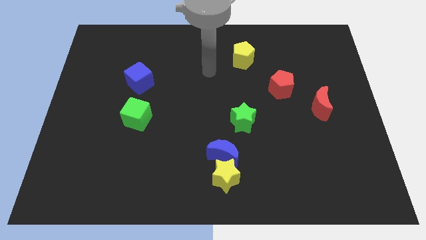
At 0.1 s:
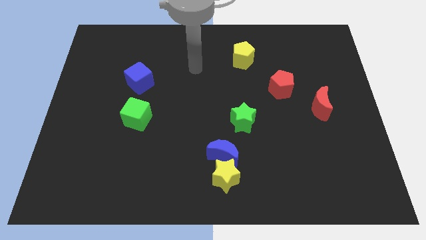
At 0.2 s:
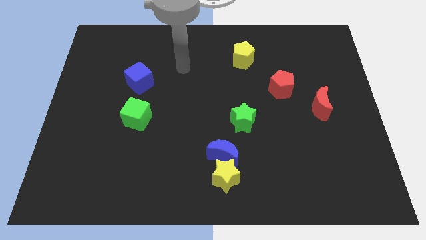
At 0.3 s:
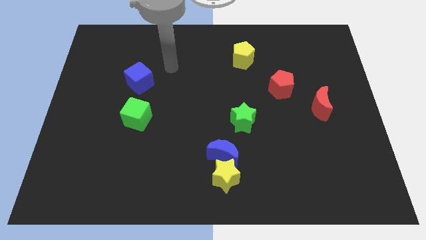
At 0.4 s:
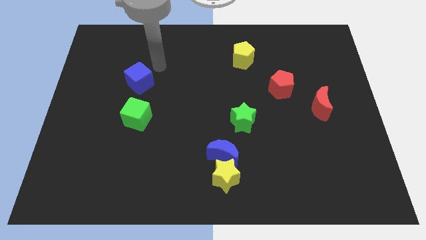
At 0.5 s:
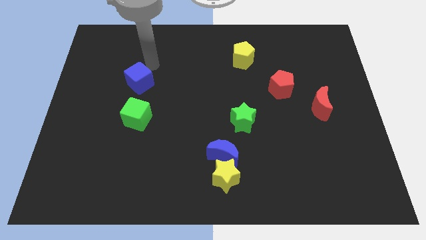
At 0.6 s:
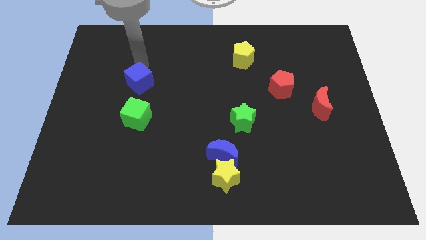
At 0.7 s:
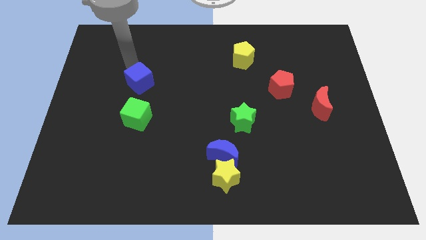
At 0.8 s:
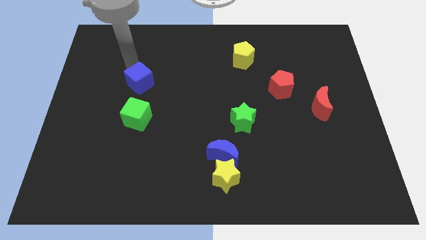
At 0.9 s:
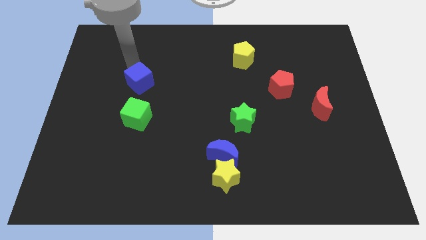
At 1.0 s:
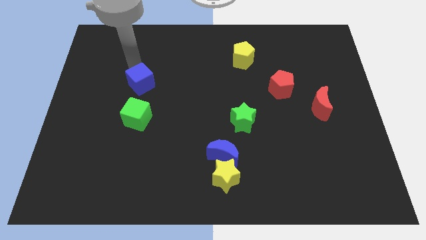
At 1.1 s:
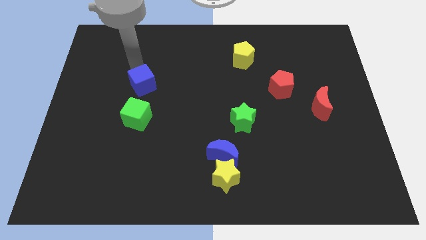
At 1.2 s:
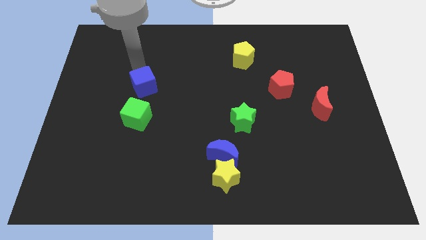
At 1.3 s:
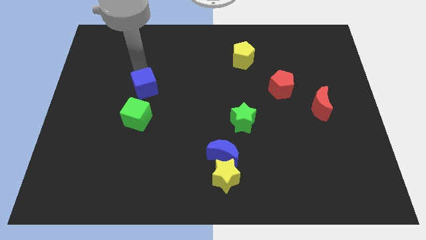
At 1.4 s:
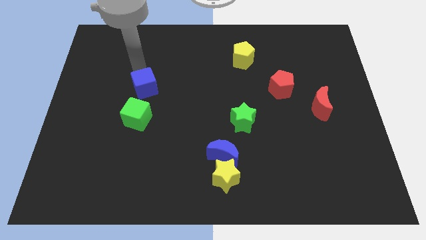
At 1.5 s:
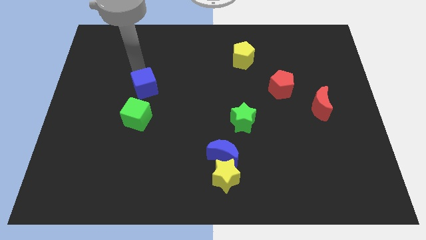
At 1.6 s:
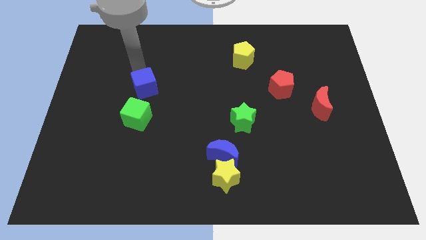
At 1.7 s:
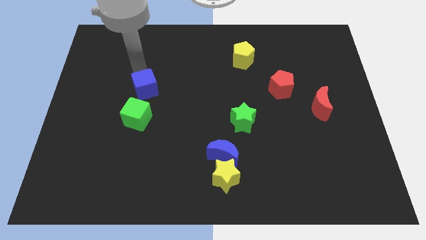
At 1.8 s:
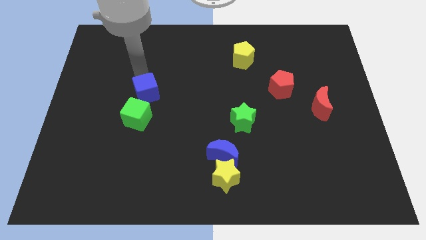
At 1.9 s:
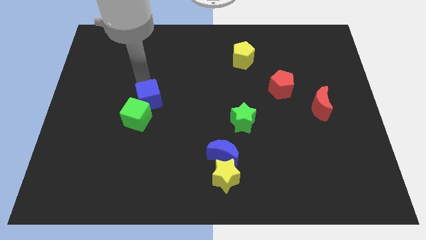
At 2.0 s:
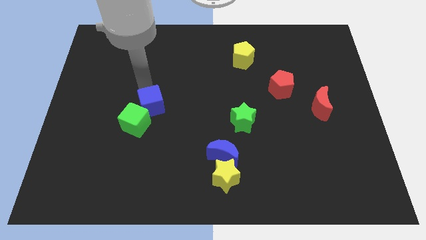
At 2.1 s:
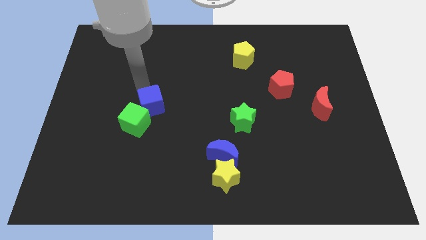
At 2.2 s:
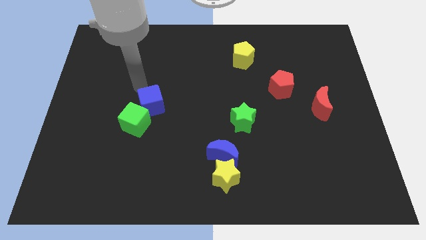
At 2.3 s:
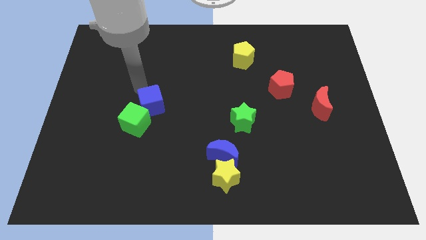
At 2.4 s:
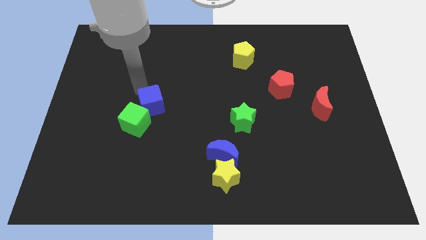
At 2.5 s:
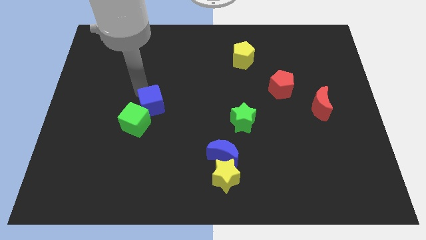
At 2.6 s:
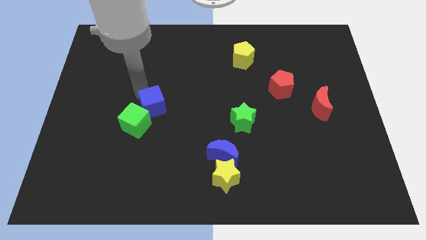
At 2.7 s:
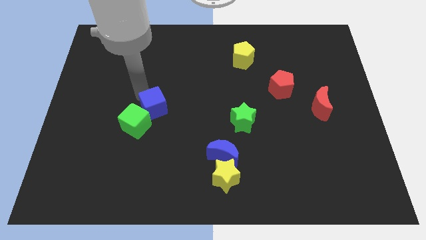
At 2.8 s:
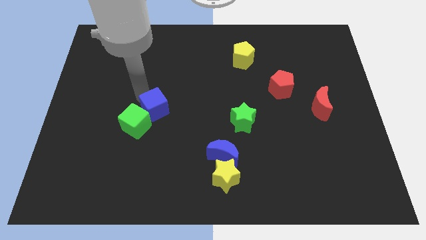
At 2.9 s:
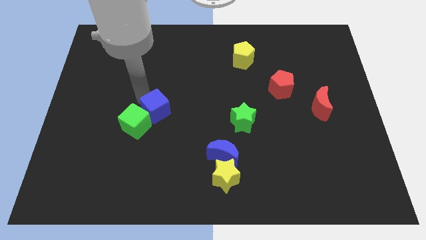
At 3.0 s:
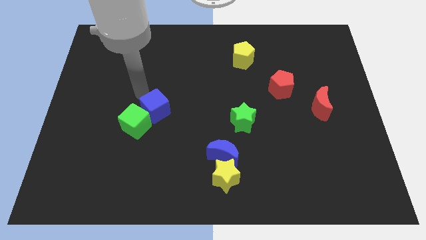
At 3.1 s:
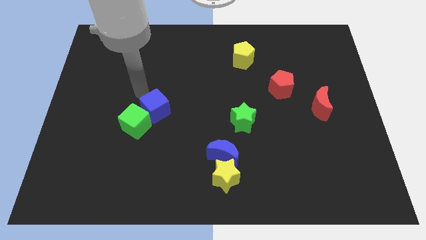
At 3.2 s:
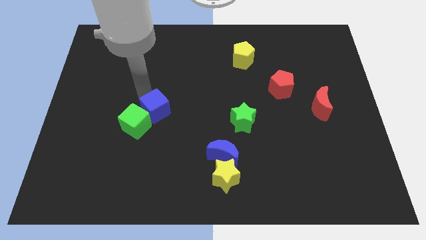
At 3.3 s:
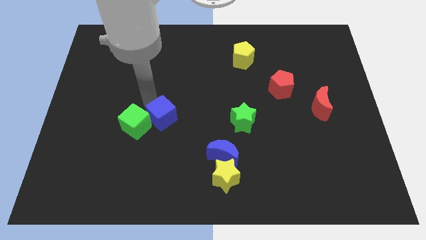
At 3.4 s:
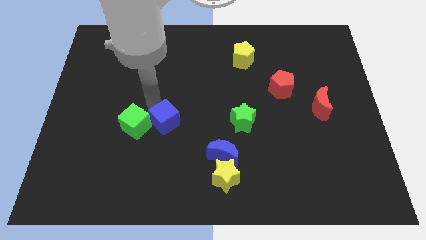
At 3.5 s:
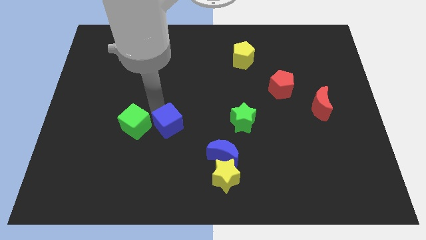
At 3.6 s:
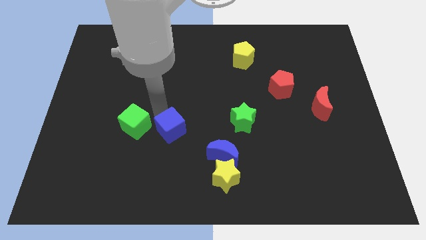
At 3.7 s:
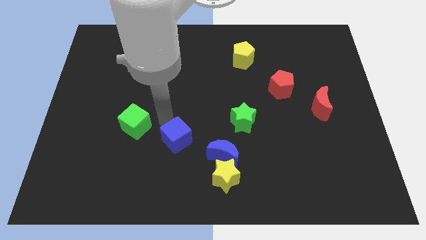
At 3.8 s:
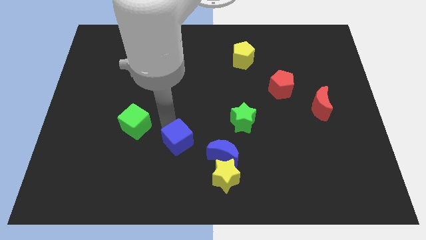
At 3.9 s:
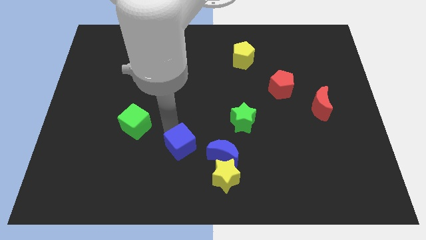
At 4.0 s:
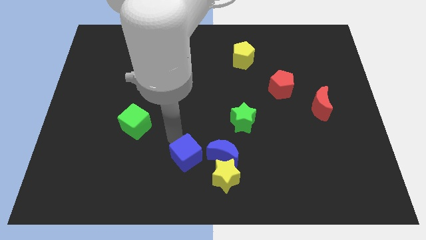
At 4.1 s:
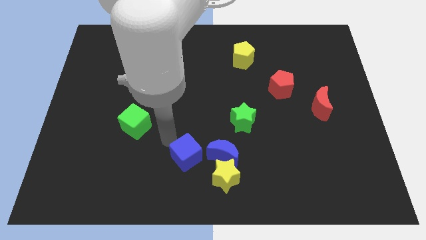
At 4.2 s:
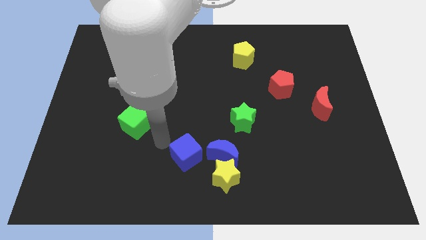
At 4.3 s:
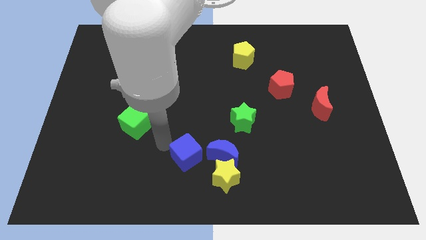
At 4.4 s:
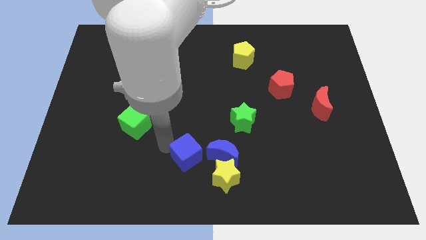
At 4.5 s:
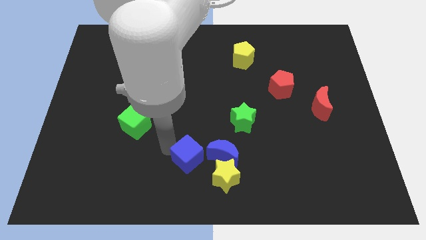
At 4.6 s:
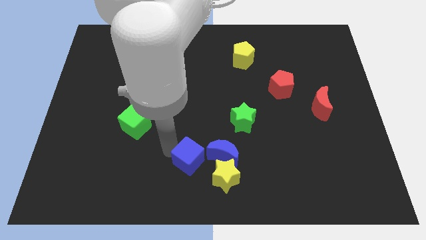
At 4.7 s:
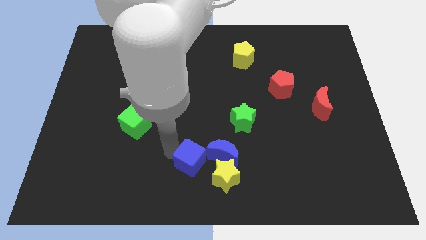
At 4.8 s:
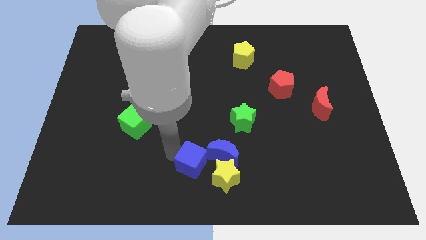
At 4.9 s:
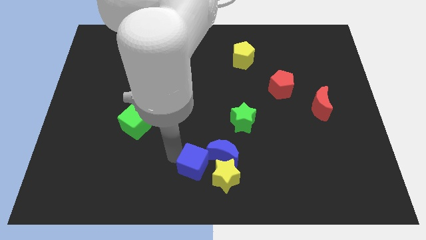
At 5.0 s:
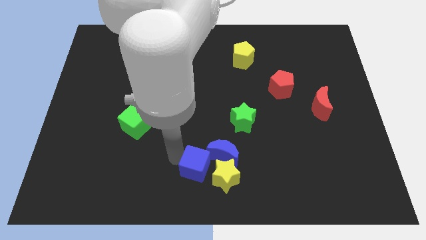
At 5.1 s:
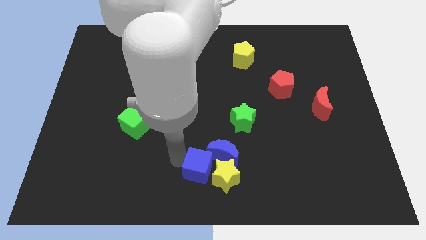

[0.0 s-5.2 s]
put the blue cube next to the yellow star

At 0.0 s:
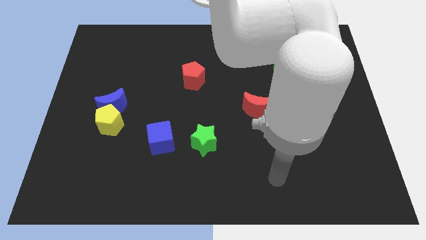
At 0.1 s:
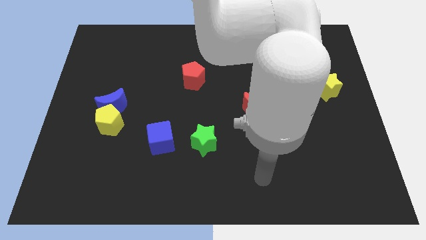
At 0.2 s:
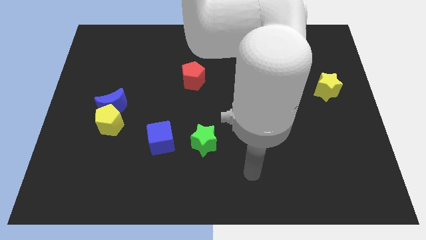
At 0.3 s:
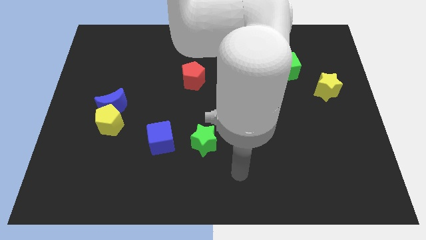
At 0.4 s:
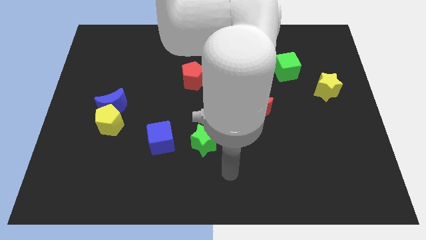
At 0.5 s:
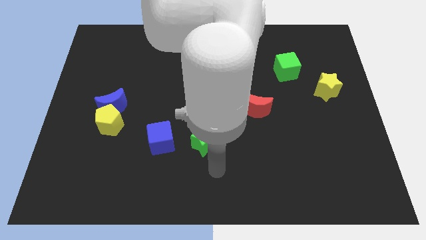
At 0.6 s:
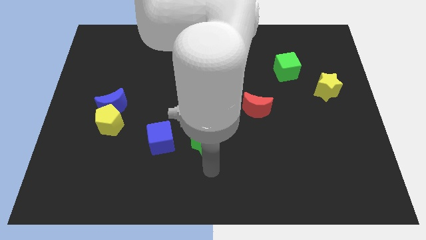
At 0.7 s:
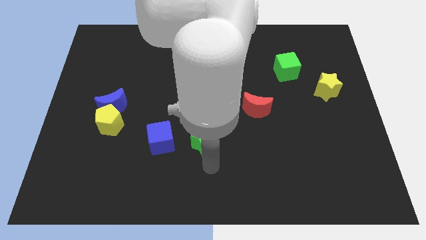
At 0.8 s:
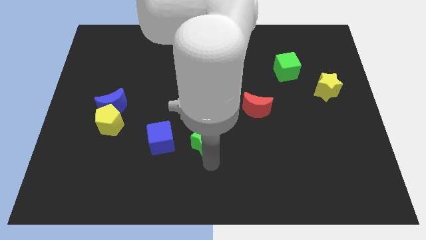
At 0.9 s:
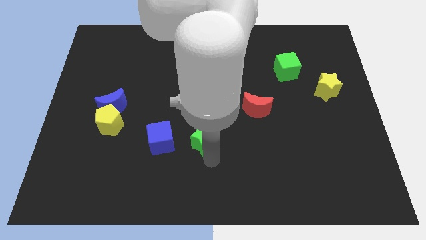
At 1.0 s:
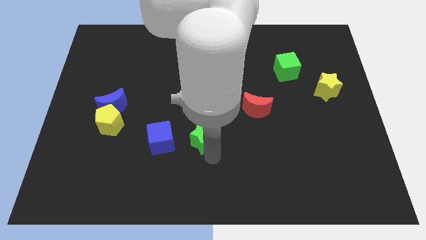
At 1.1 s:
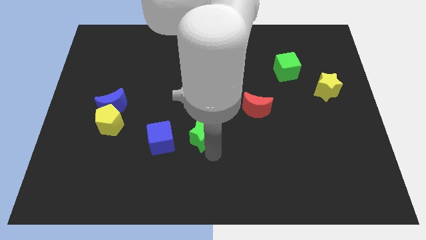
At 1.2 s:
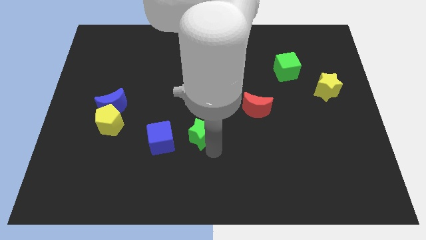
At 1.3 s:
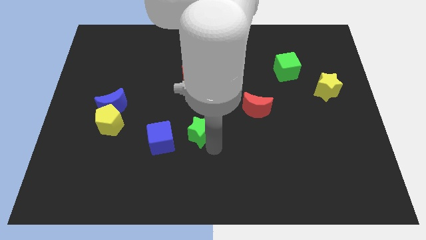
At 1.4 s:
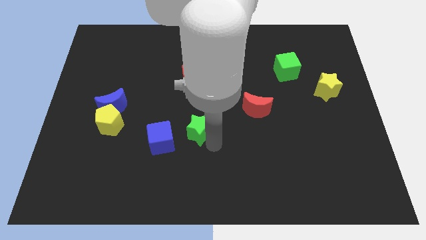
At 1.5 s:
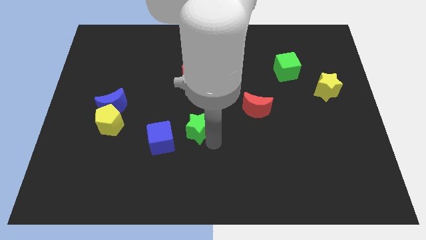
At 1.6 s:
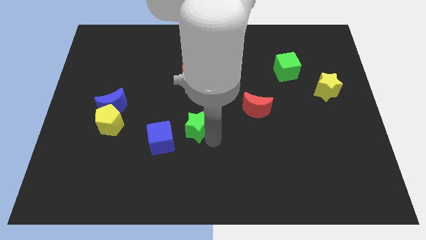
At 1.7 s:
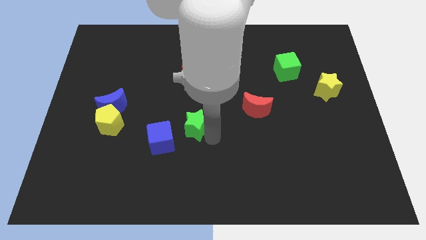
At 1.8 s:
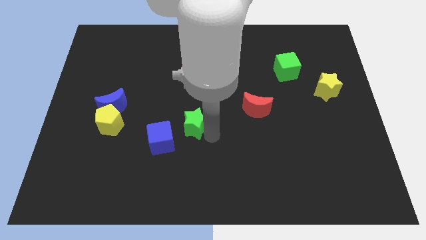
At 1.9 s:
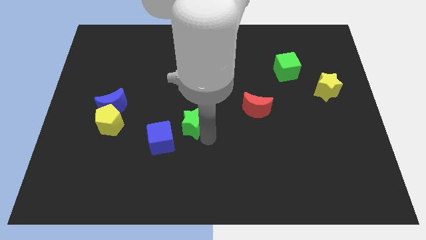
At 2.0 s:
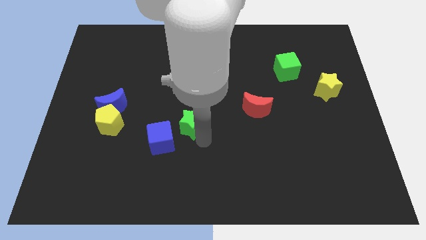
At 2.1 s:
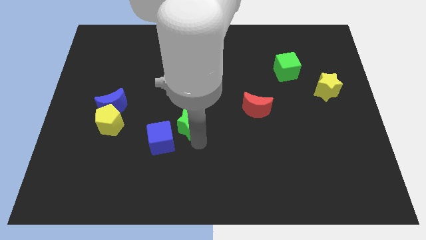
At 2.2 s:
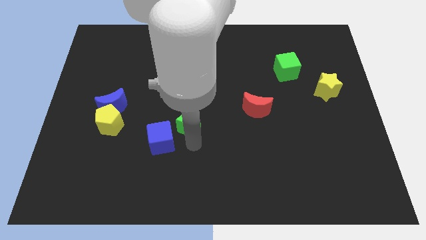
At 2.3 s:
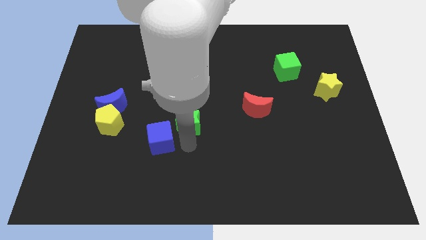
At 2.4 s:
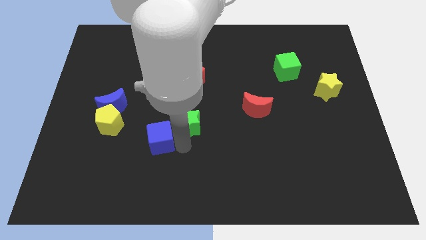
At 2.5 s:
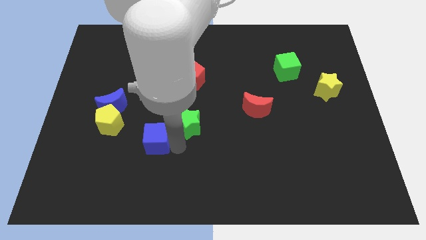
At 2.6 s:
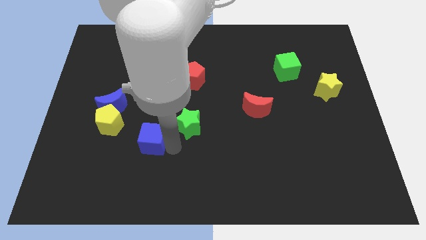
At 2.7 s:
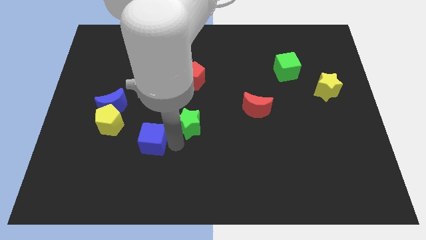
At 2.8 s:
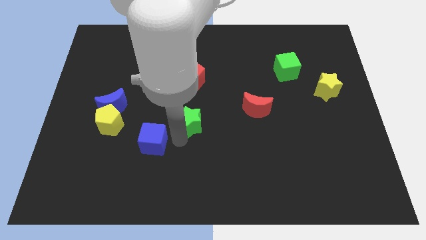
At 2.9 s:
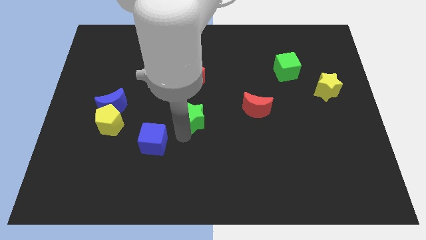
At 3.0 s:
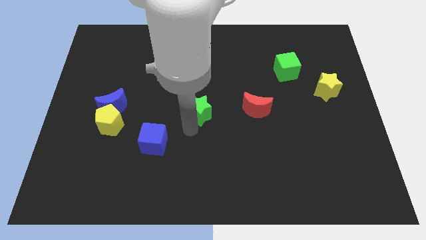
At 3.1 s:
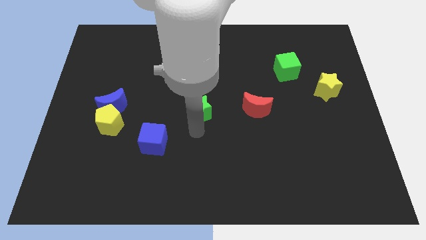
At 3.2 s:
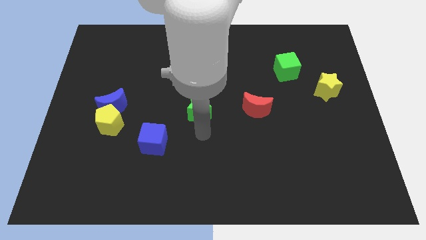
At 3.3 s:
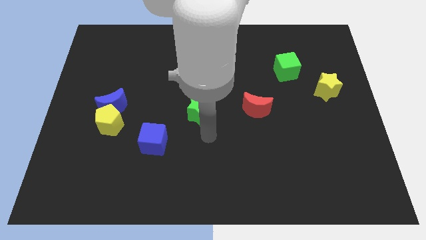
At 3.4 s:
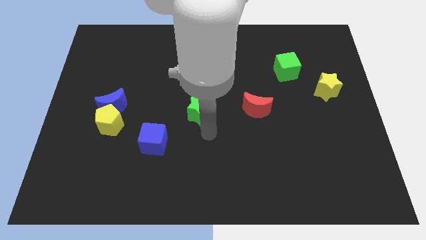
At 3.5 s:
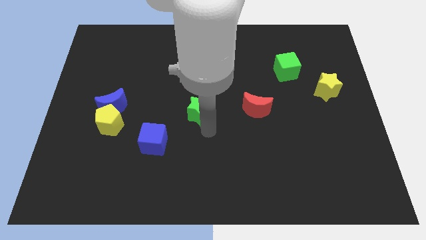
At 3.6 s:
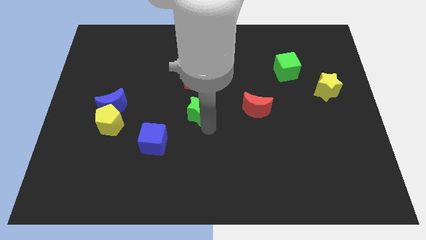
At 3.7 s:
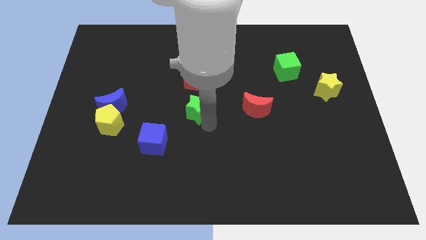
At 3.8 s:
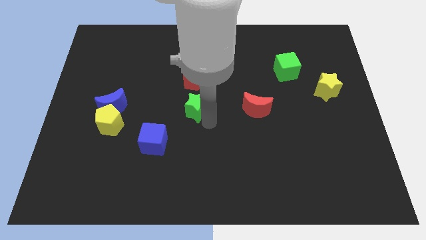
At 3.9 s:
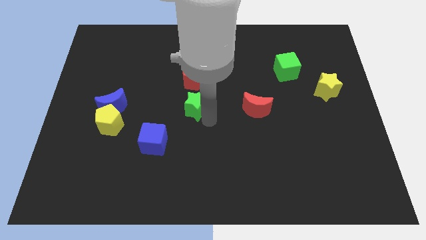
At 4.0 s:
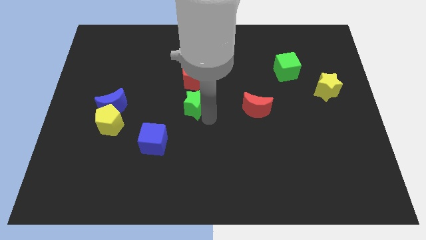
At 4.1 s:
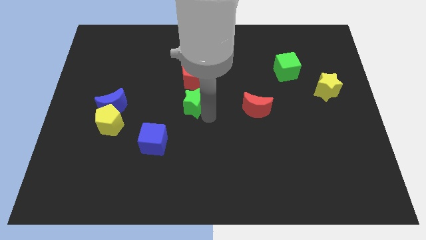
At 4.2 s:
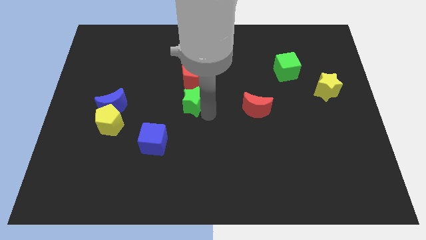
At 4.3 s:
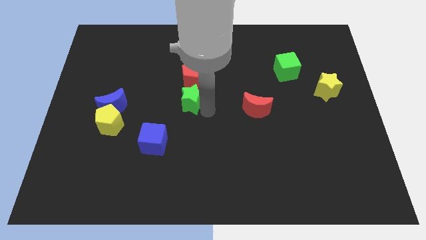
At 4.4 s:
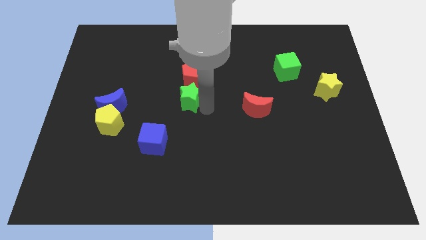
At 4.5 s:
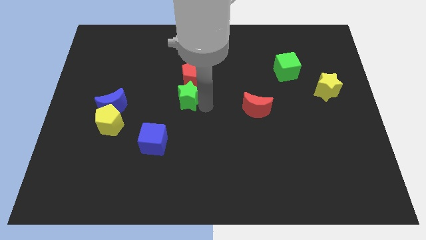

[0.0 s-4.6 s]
put the green star next to the red pentagon
